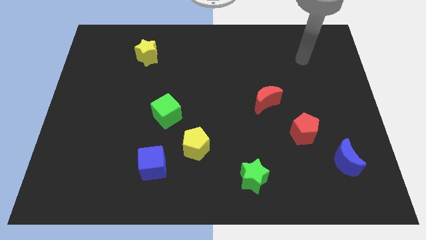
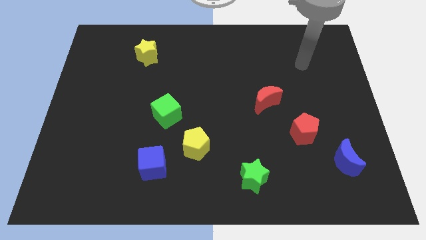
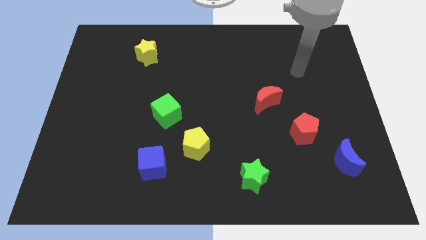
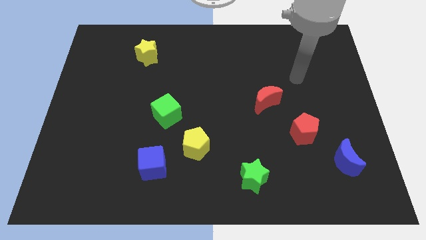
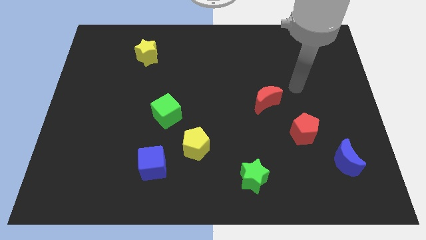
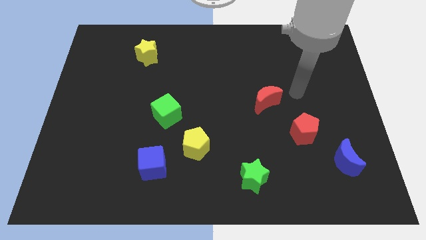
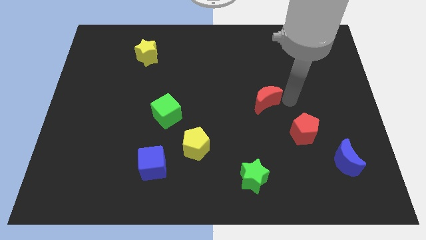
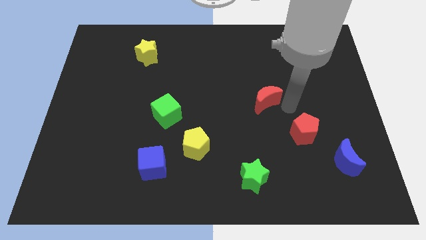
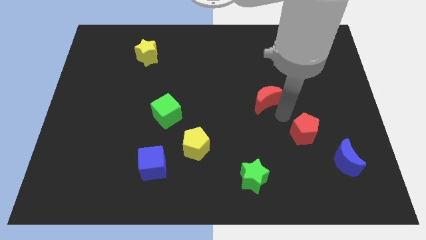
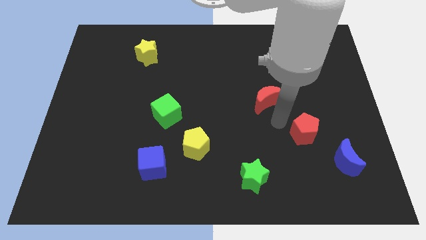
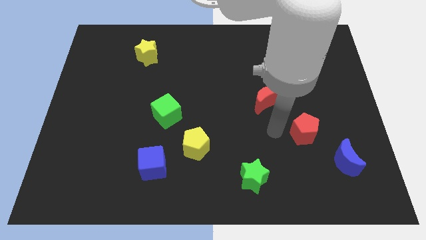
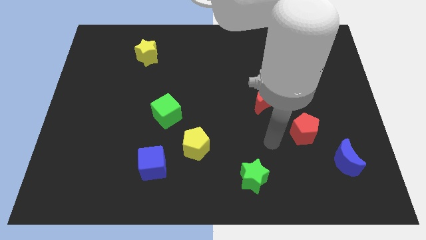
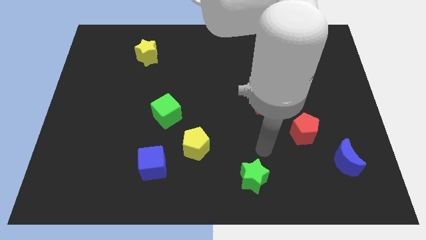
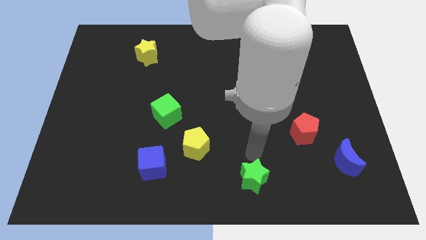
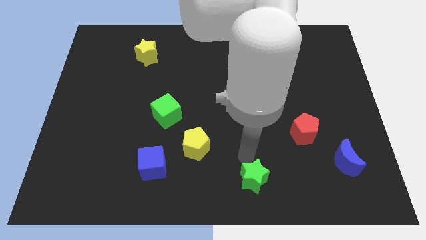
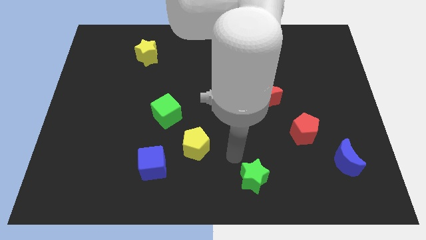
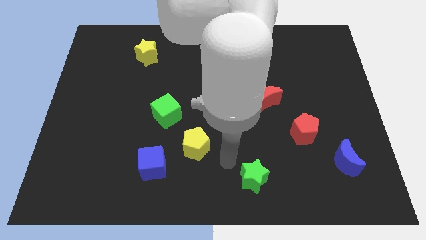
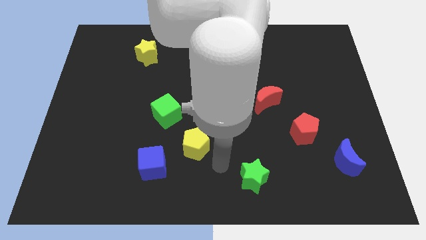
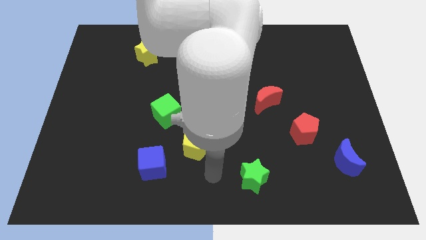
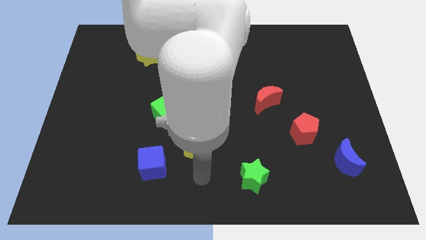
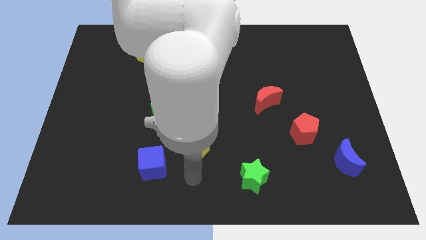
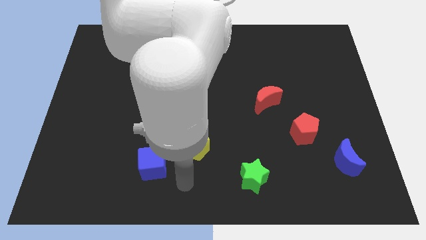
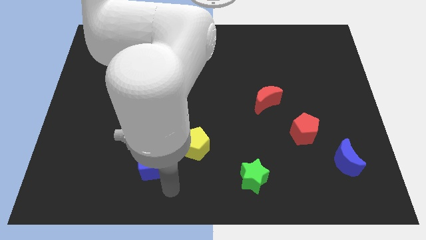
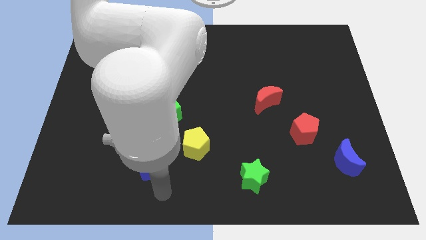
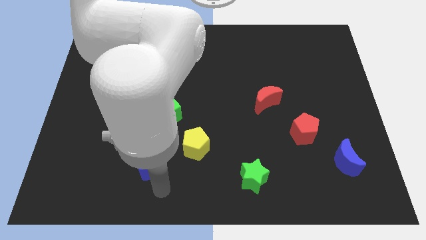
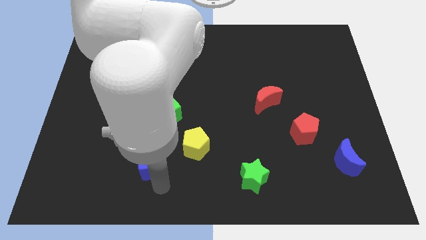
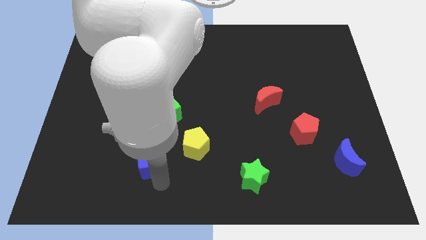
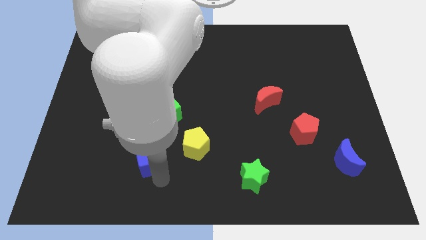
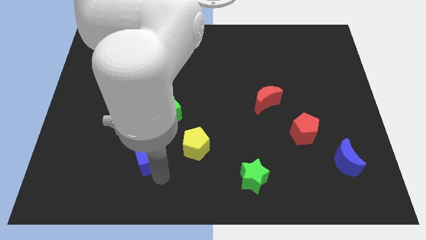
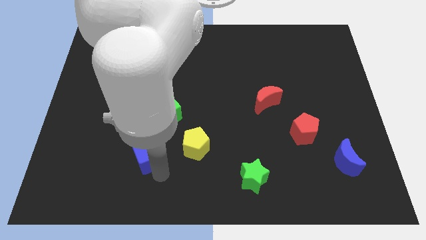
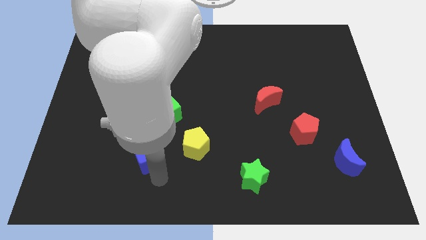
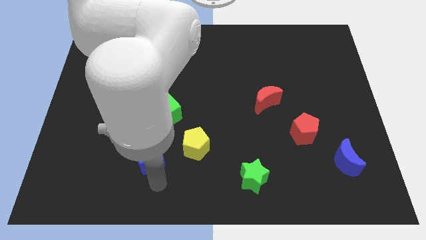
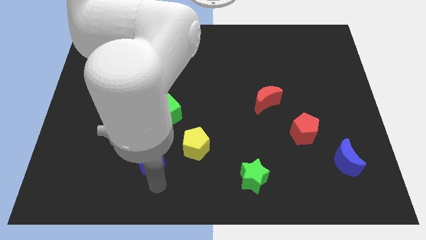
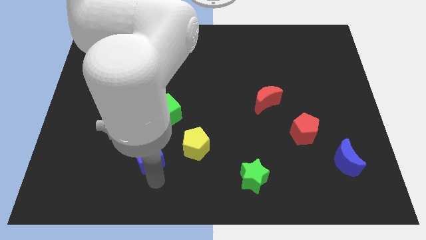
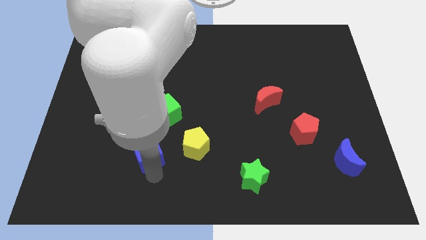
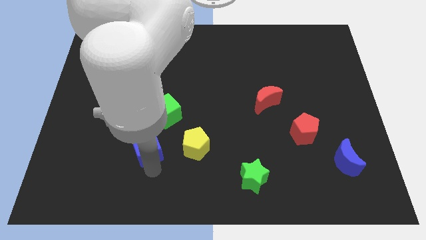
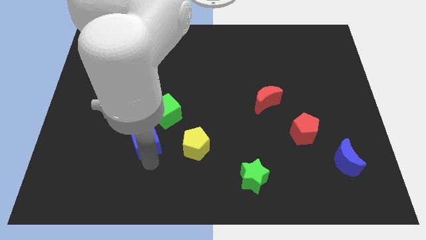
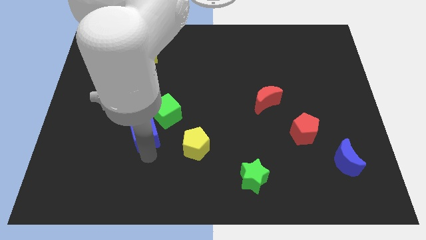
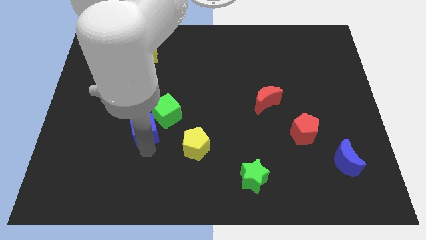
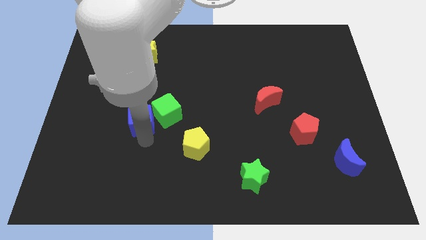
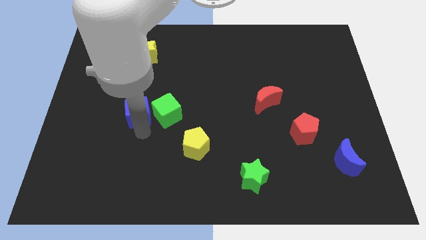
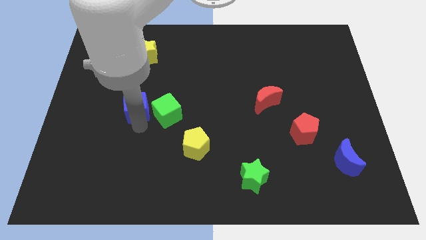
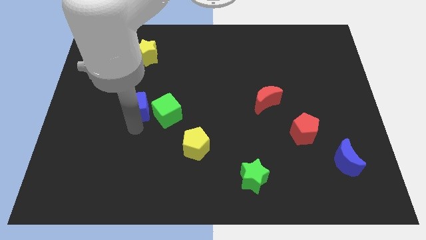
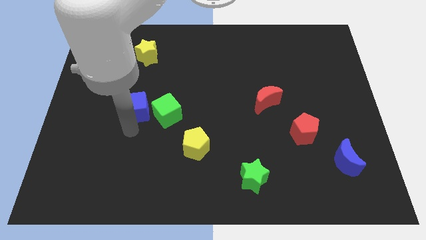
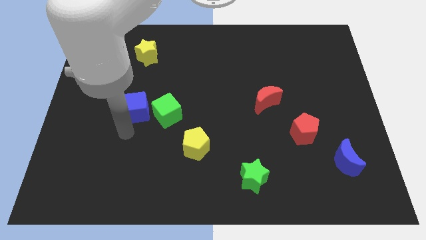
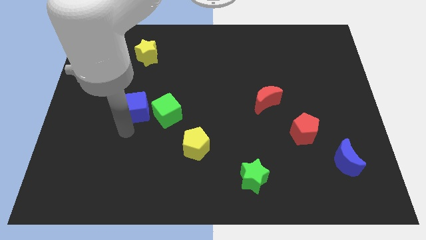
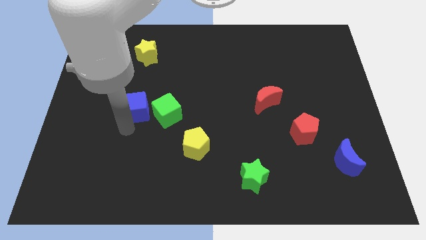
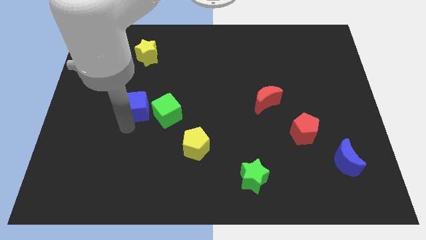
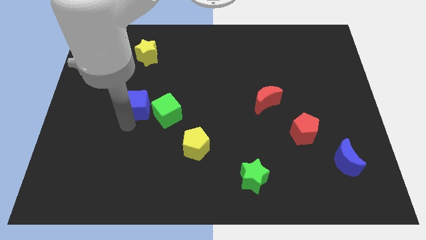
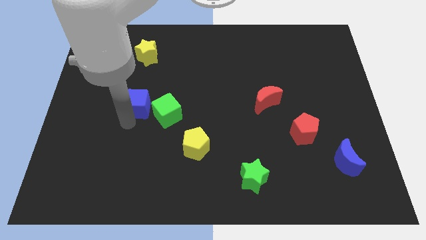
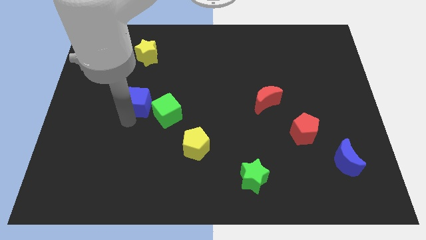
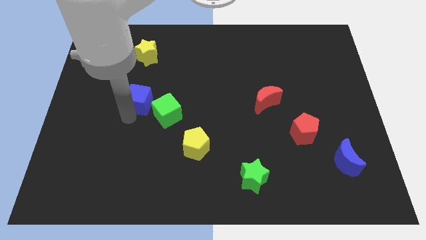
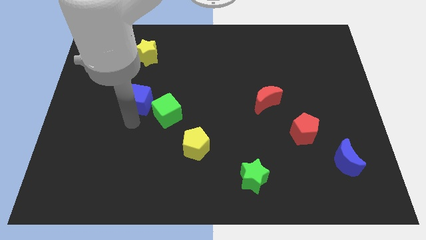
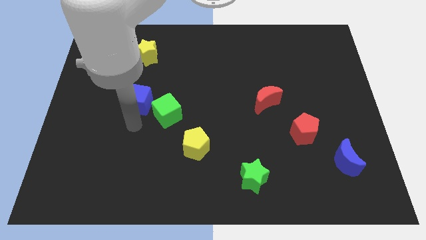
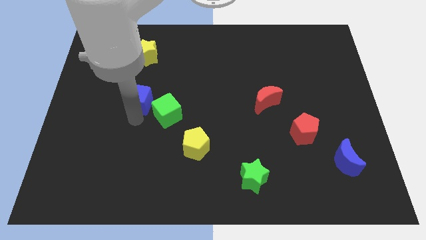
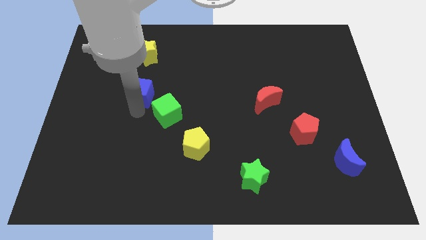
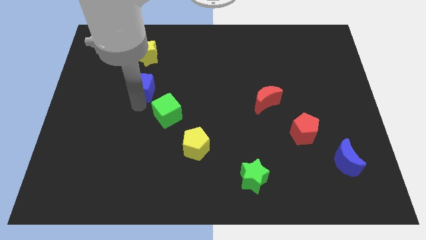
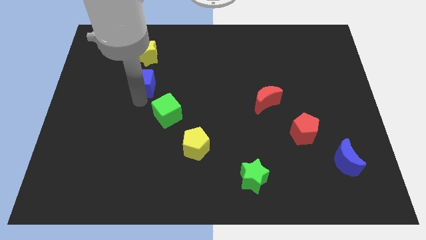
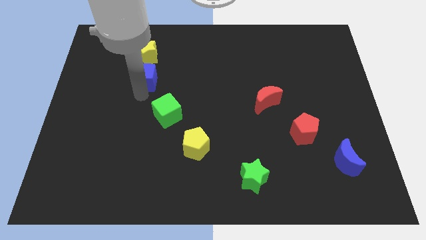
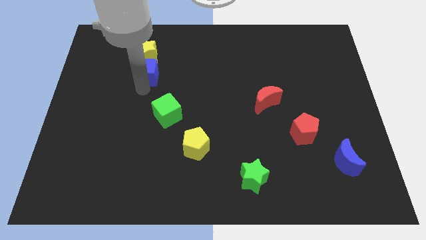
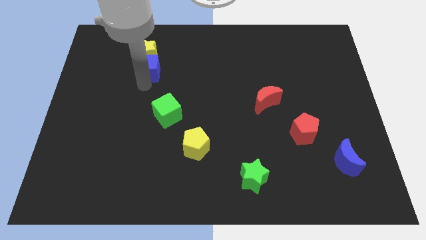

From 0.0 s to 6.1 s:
put the blue cube close to the yellow star

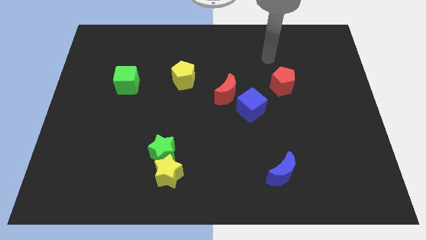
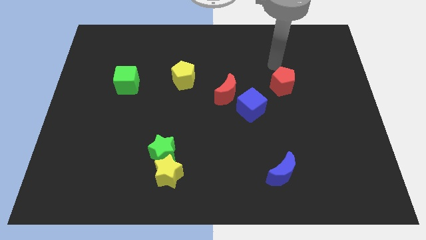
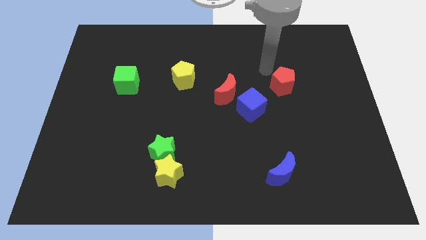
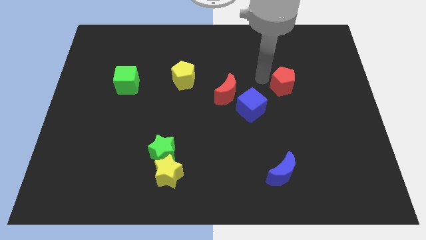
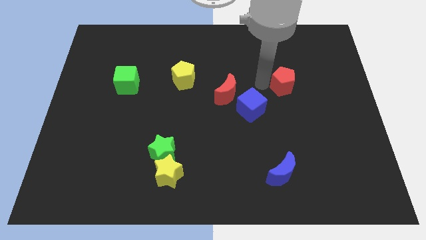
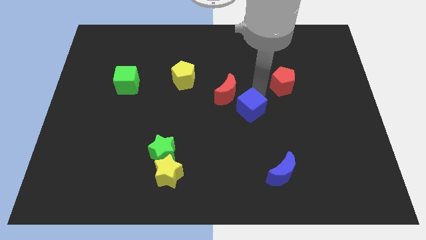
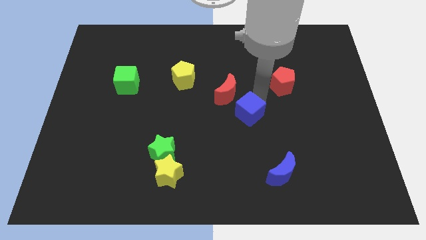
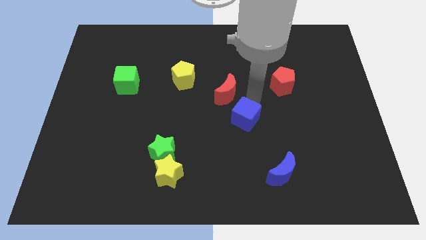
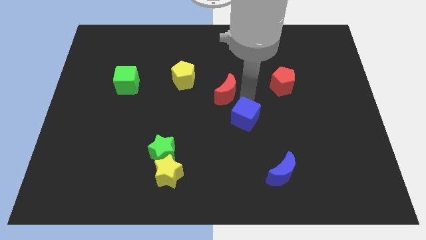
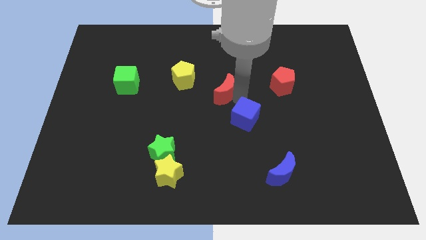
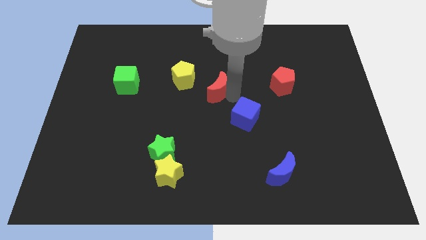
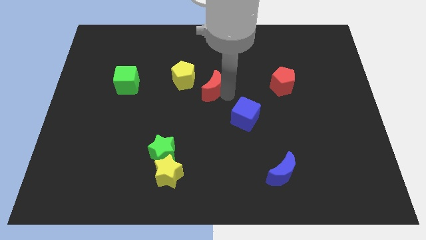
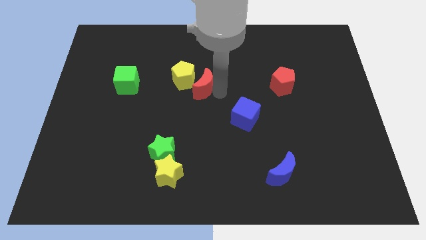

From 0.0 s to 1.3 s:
slide the red moon to the yellow pentagon
